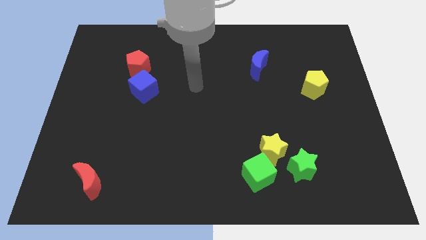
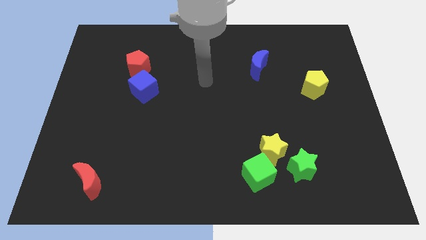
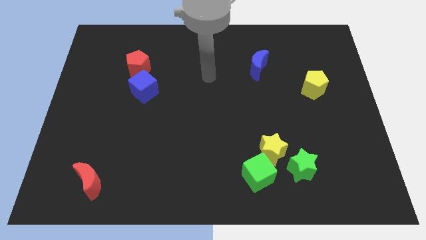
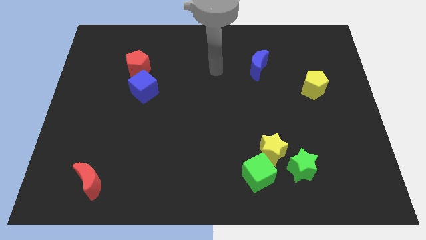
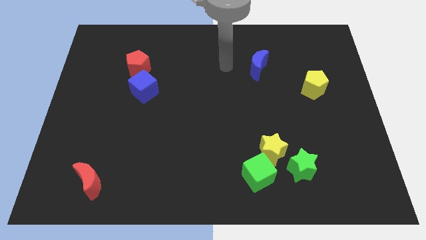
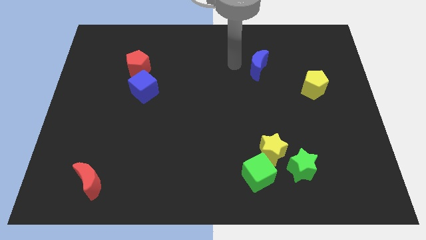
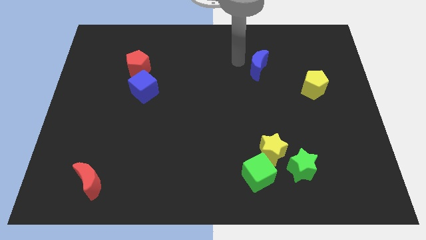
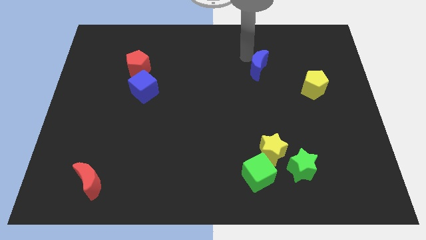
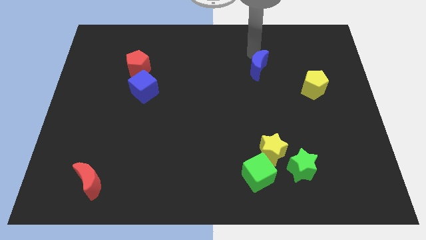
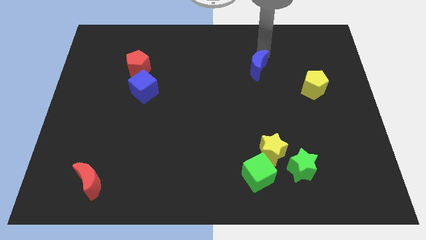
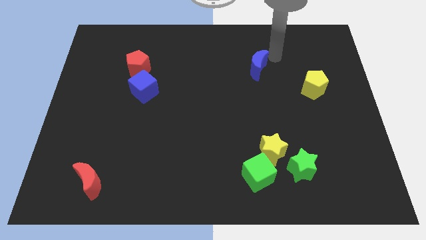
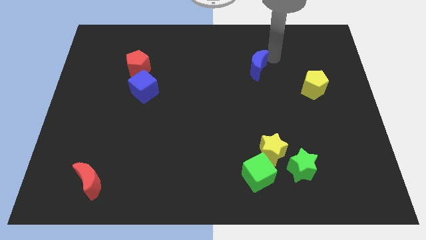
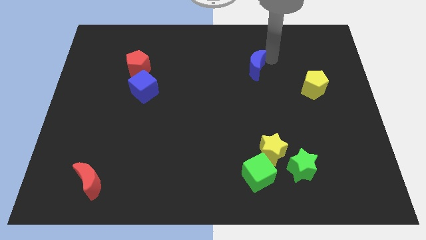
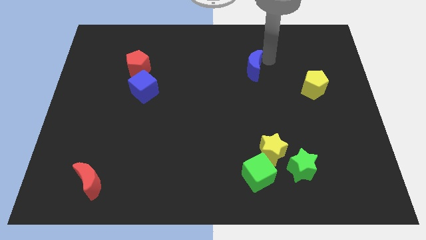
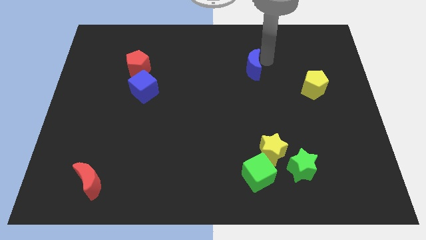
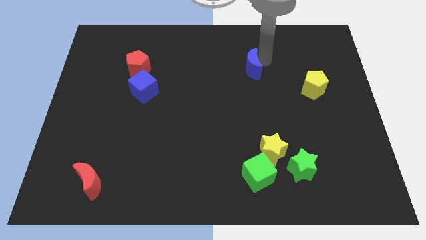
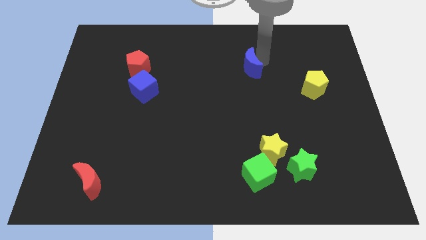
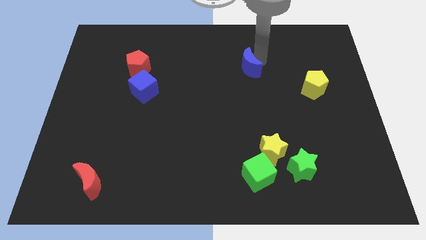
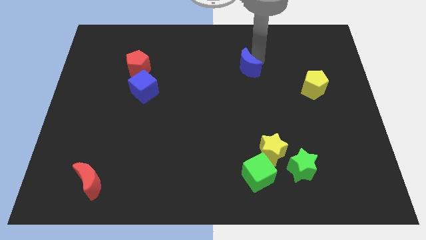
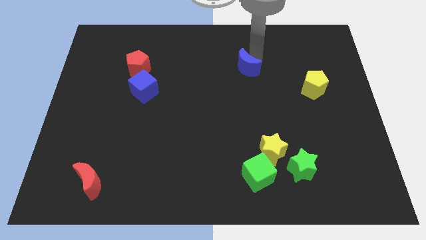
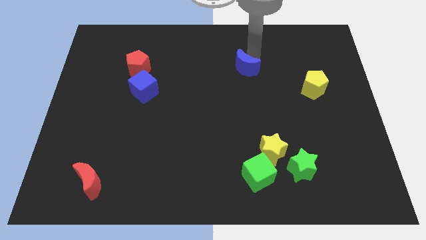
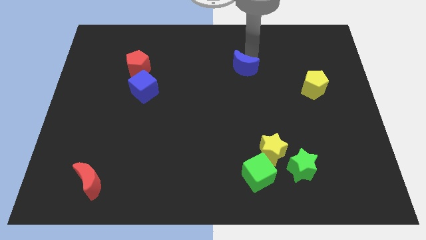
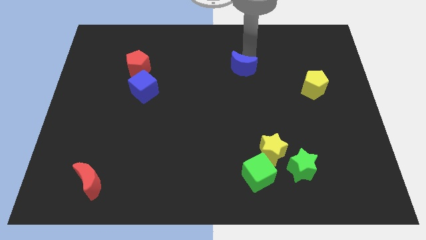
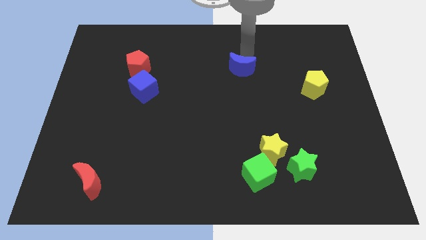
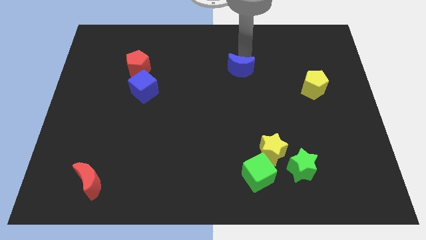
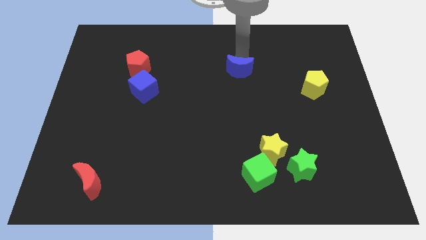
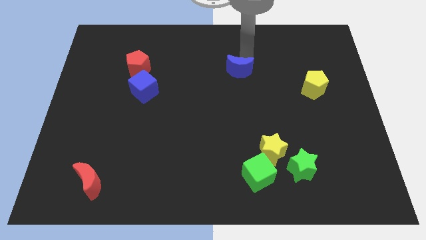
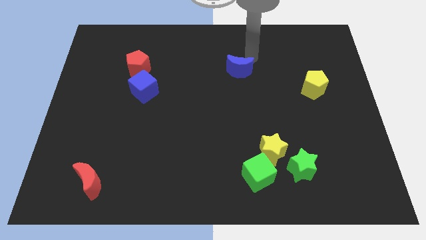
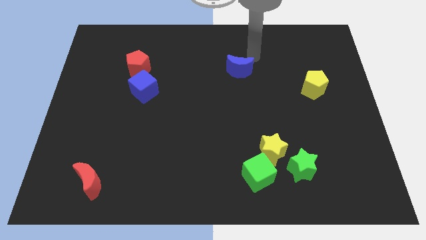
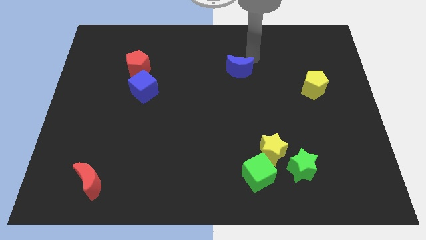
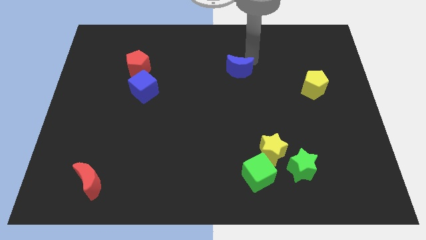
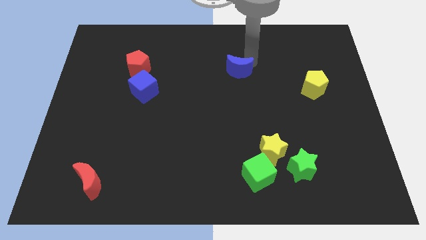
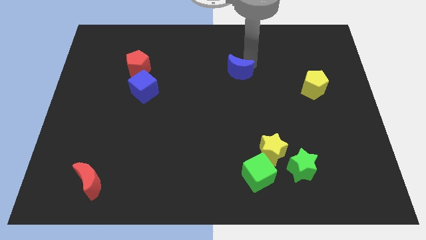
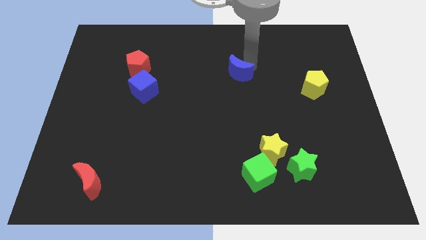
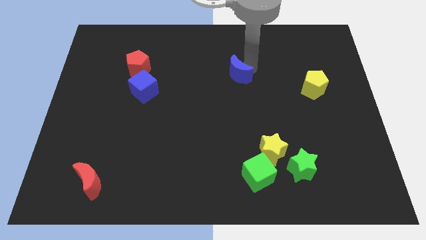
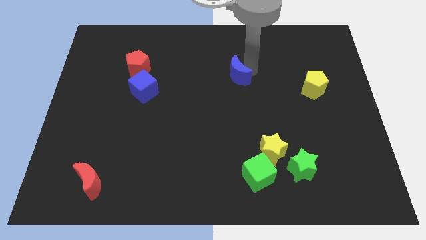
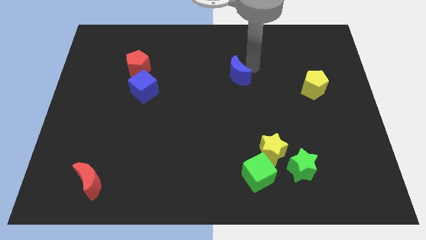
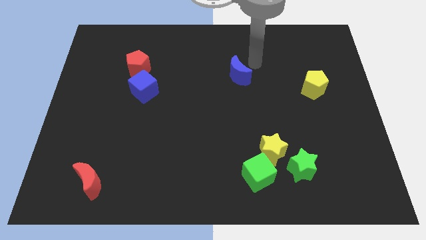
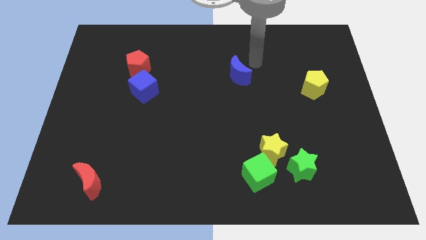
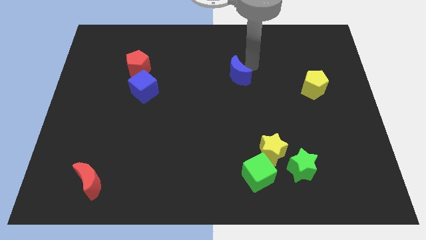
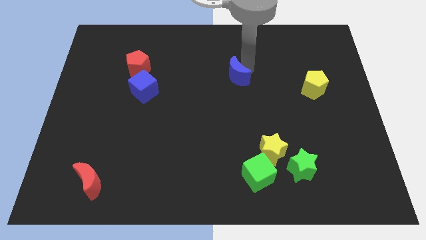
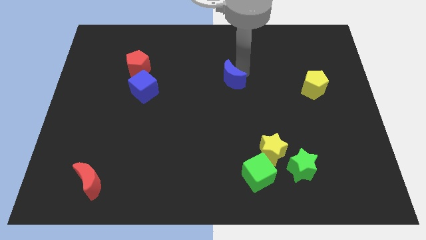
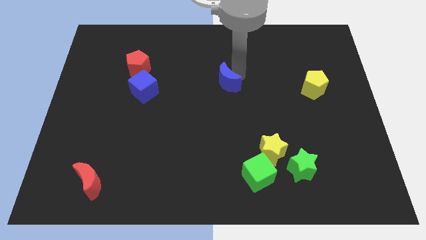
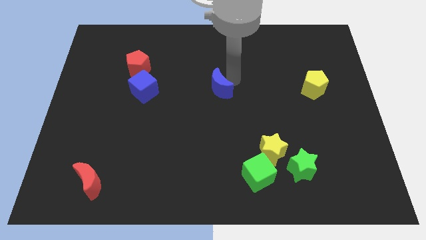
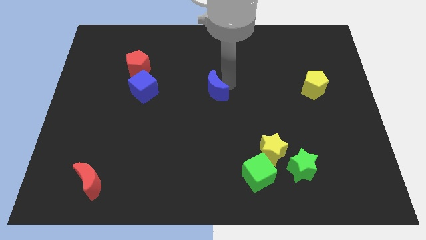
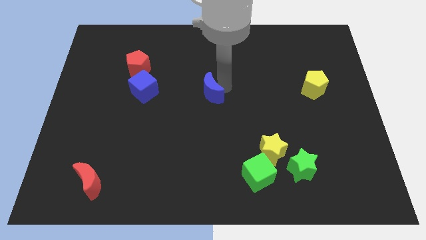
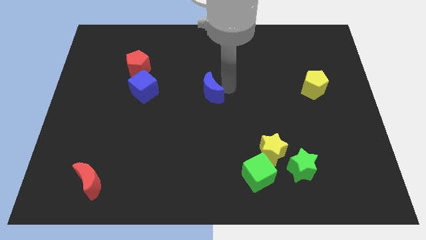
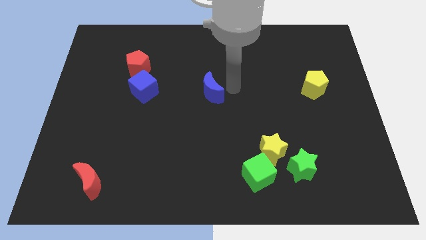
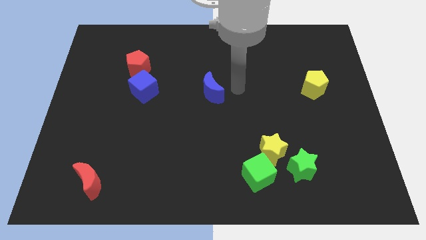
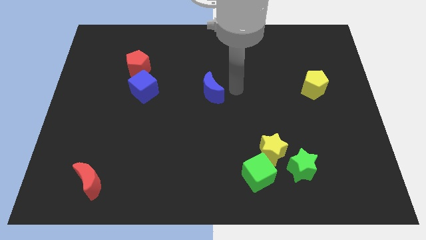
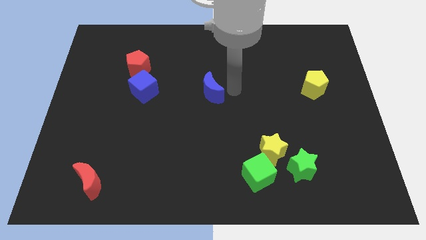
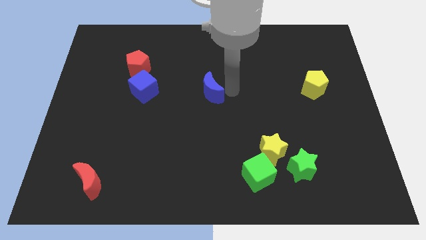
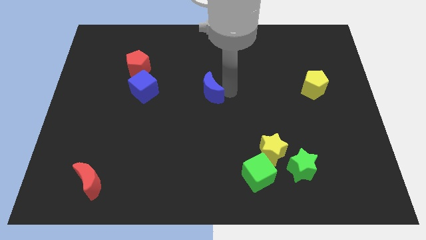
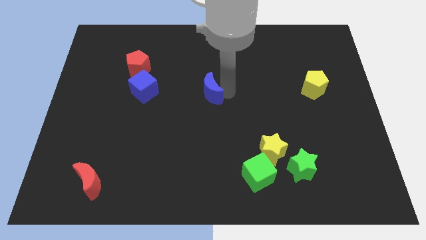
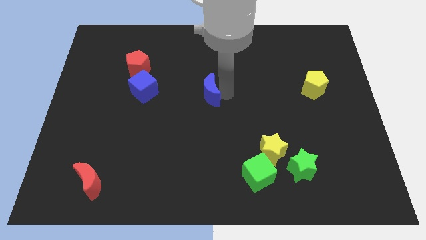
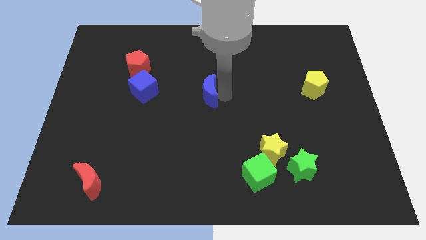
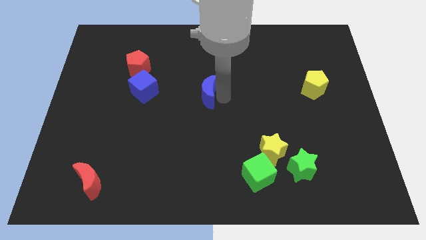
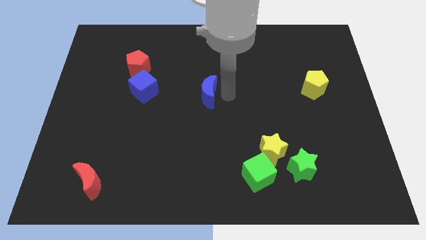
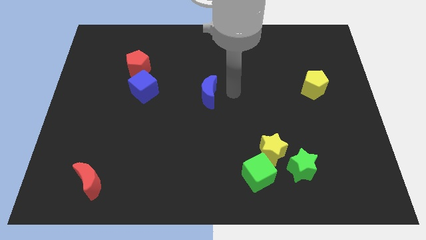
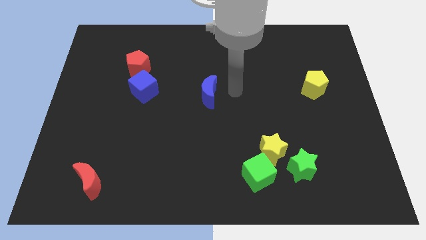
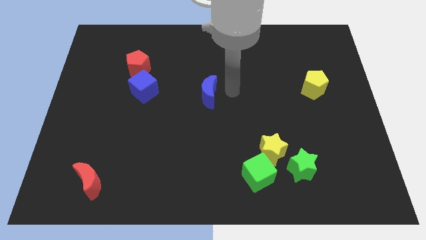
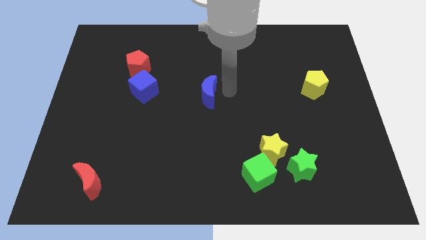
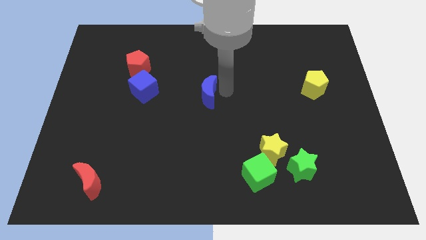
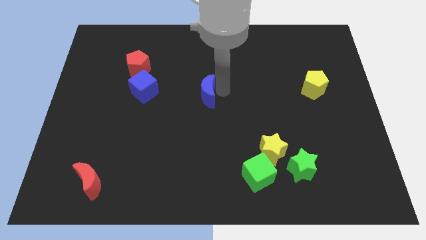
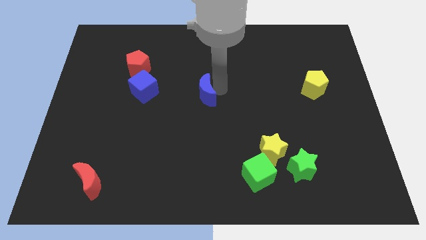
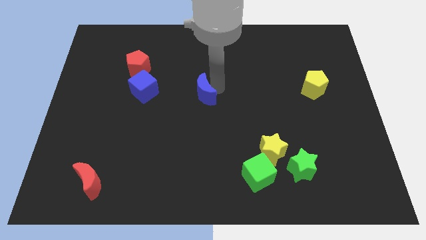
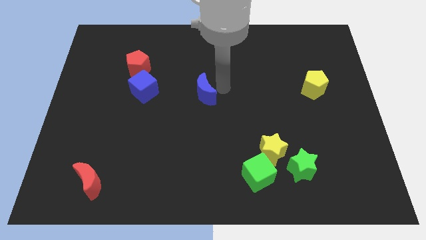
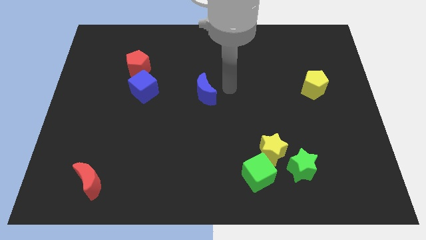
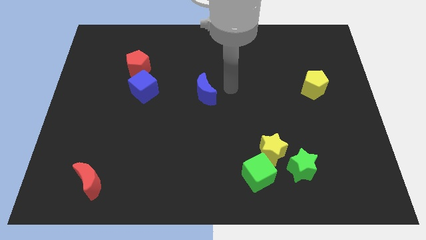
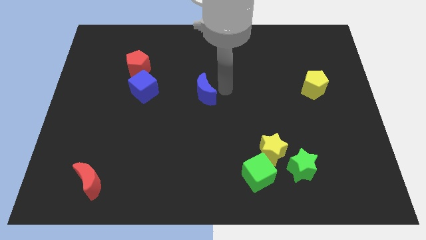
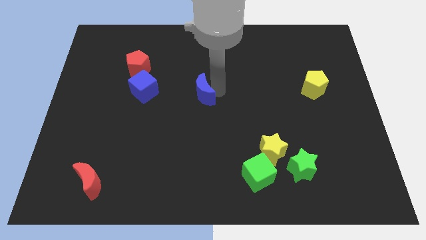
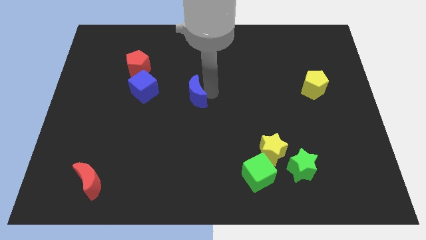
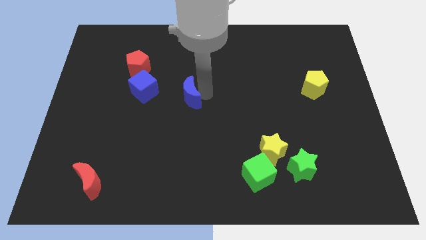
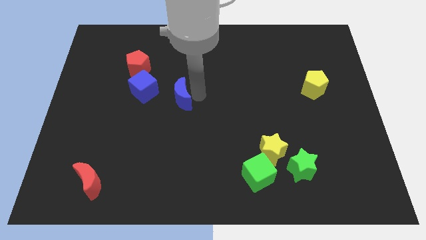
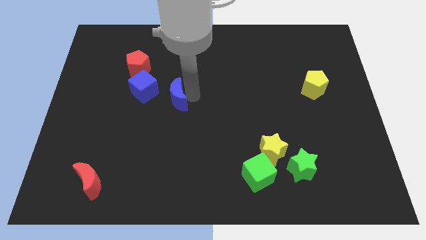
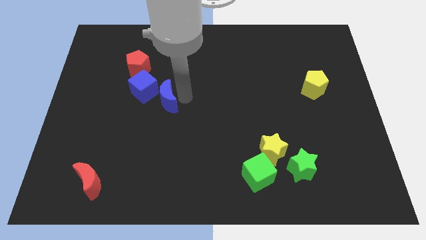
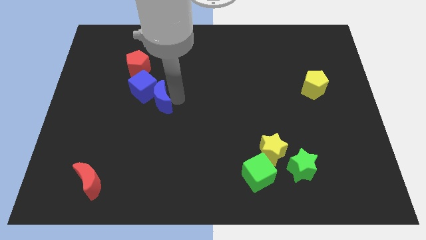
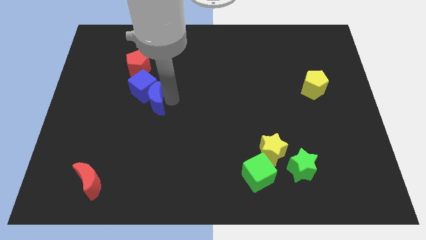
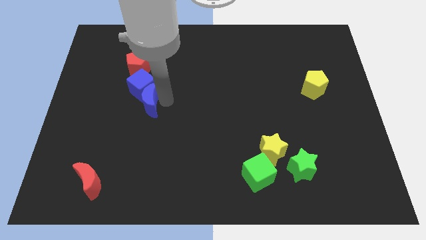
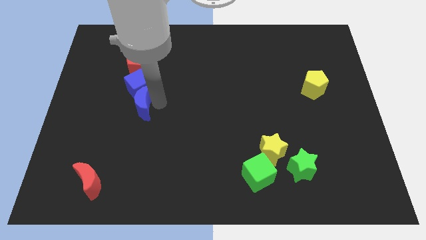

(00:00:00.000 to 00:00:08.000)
put the blue moon diagonally down and to the left of the blue cube
